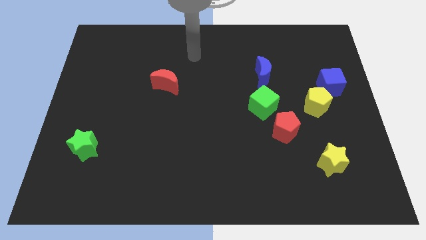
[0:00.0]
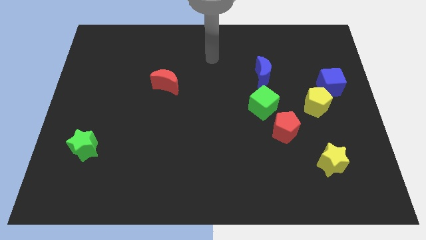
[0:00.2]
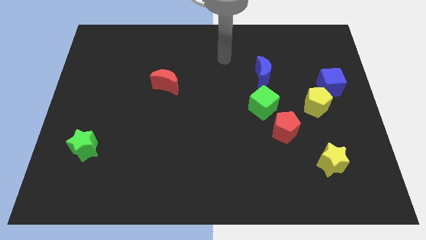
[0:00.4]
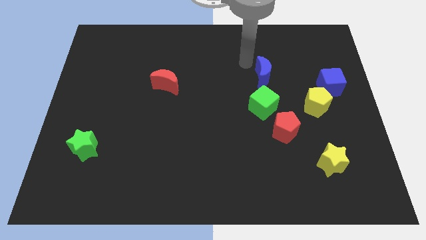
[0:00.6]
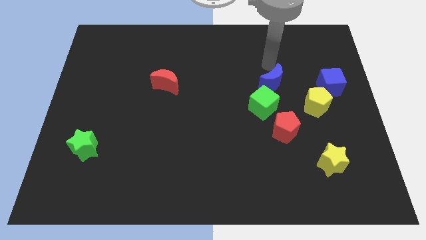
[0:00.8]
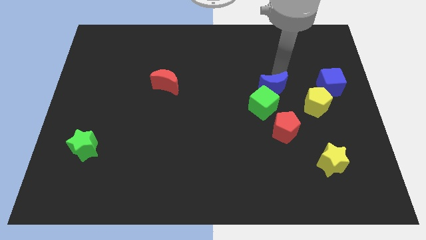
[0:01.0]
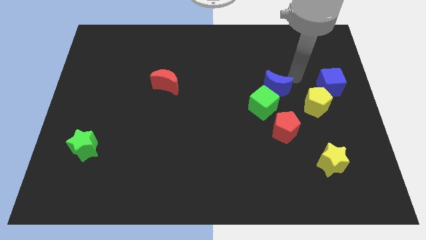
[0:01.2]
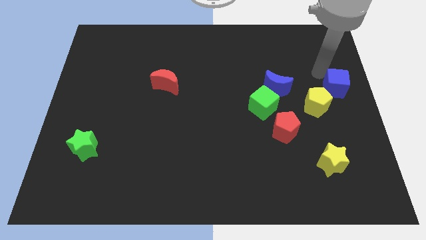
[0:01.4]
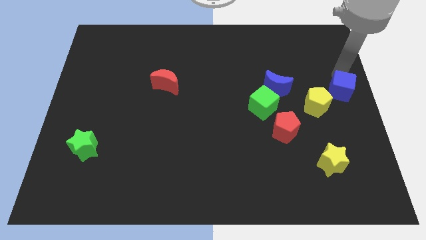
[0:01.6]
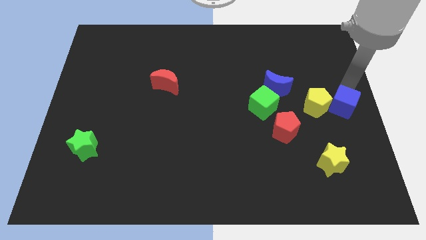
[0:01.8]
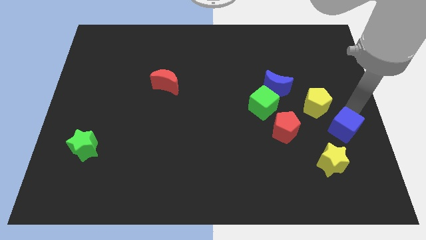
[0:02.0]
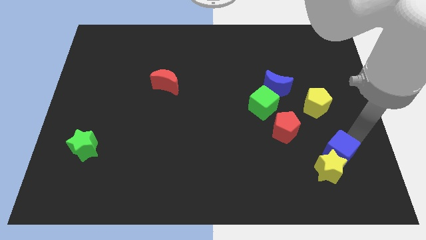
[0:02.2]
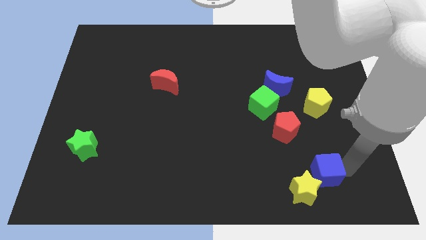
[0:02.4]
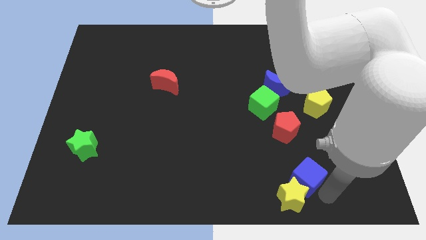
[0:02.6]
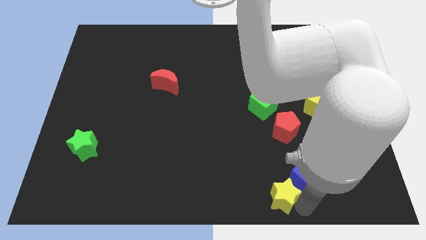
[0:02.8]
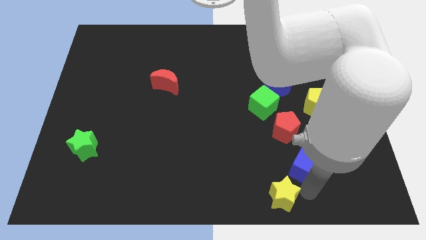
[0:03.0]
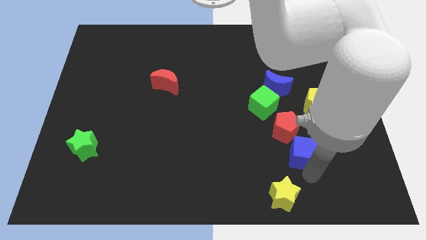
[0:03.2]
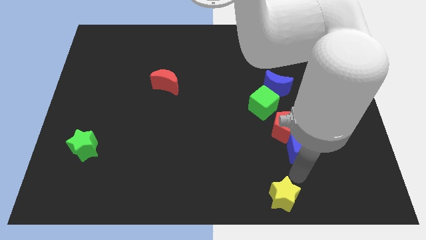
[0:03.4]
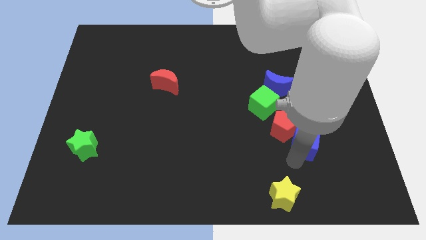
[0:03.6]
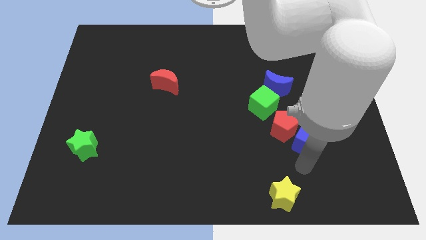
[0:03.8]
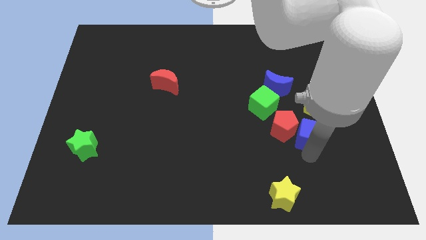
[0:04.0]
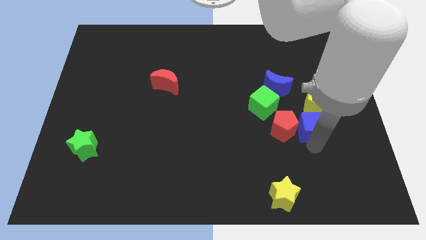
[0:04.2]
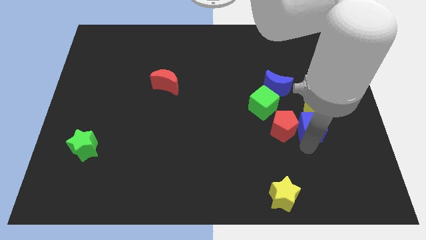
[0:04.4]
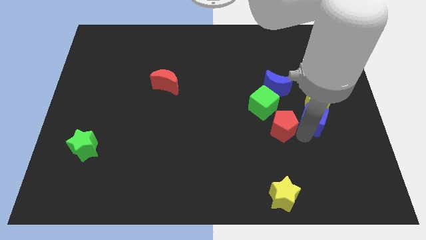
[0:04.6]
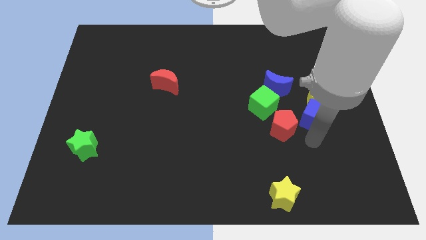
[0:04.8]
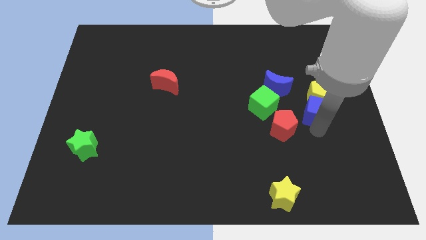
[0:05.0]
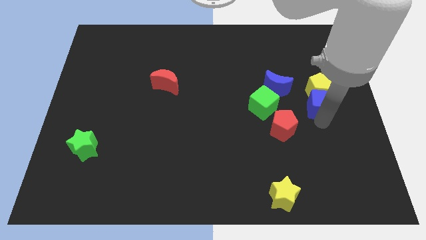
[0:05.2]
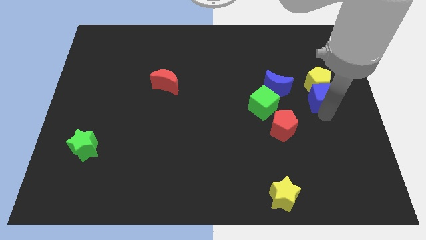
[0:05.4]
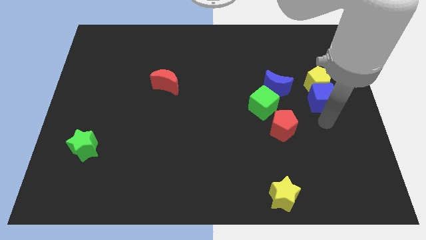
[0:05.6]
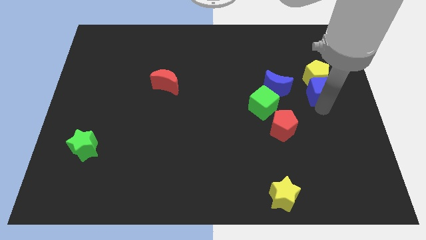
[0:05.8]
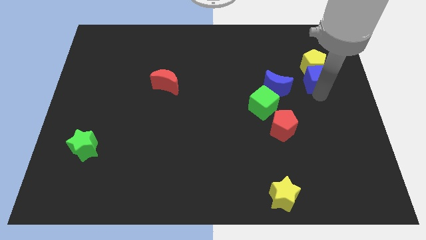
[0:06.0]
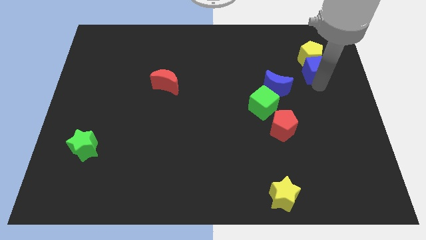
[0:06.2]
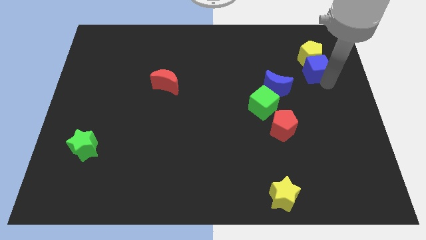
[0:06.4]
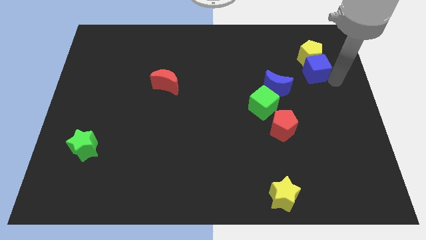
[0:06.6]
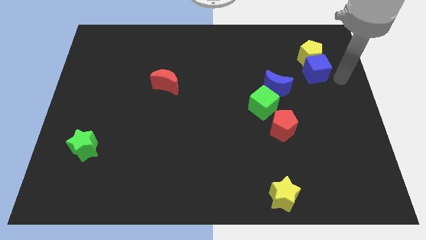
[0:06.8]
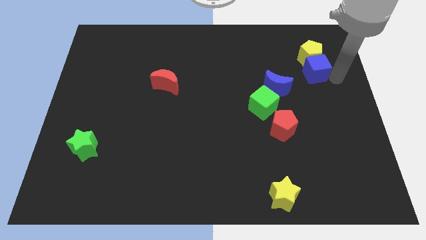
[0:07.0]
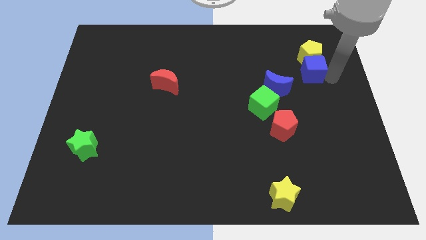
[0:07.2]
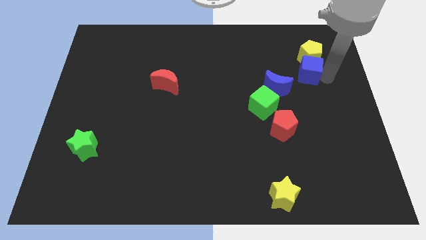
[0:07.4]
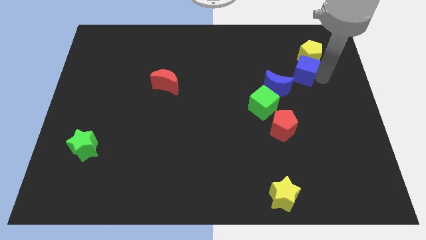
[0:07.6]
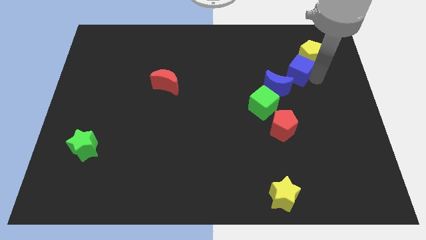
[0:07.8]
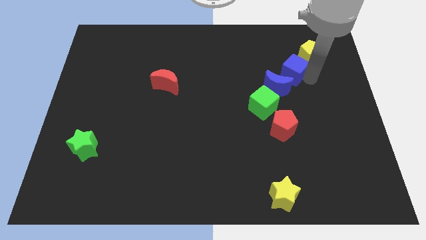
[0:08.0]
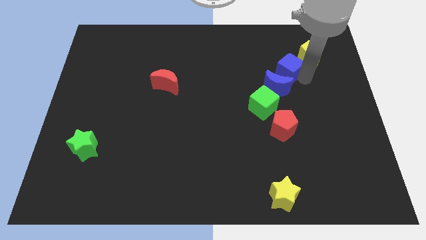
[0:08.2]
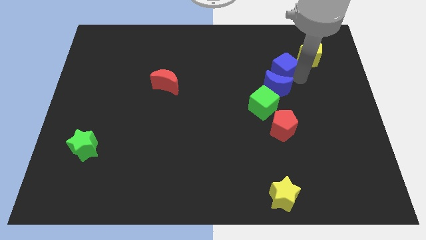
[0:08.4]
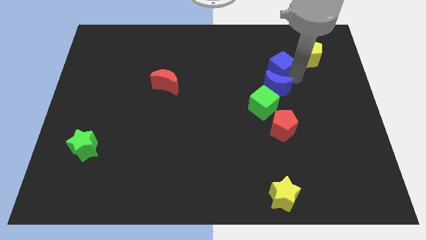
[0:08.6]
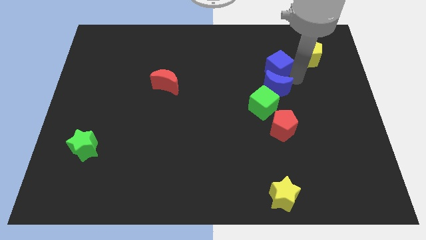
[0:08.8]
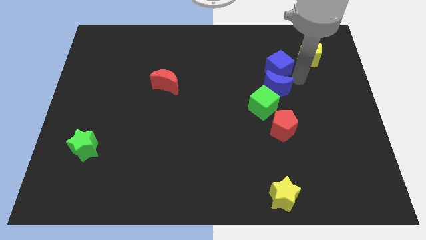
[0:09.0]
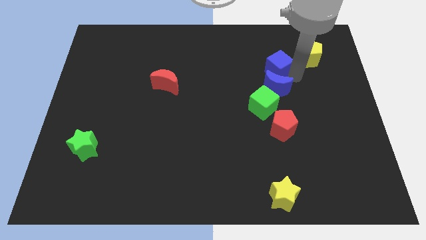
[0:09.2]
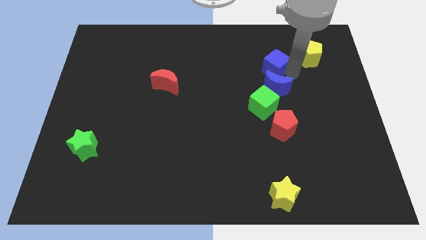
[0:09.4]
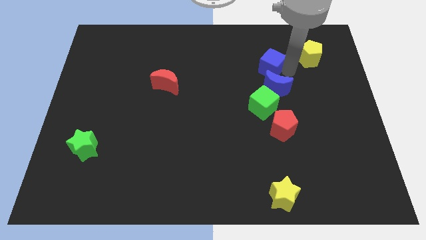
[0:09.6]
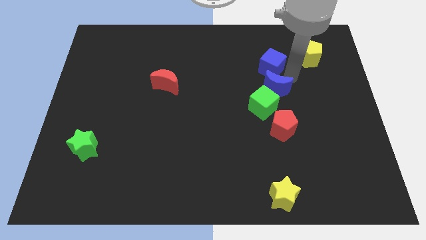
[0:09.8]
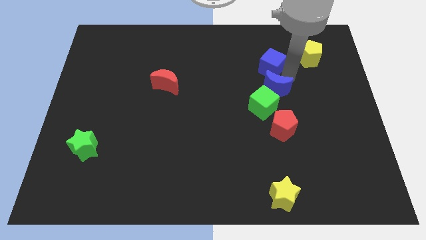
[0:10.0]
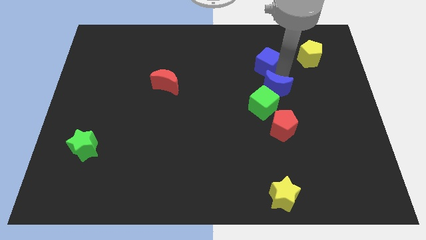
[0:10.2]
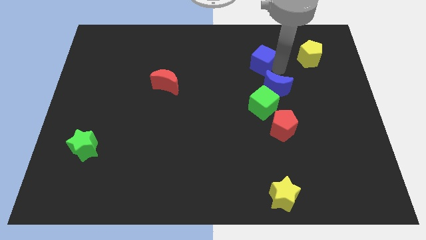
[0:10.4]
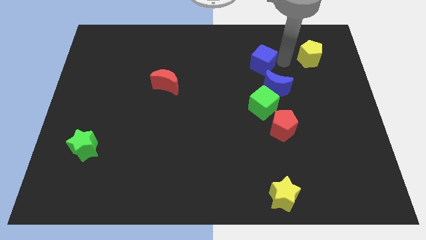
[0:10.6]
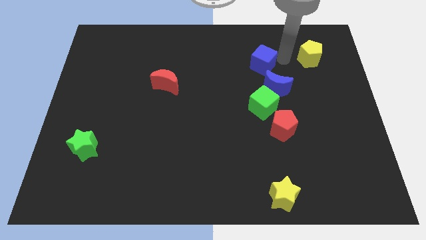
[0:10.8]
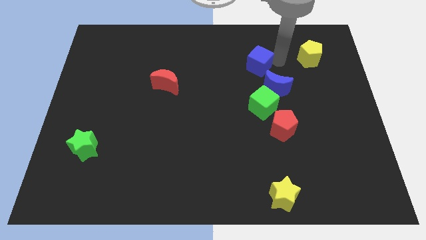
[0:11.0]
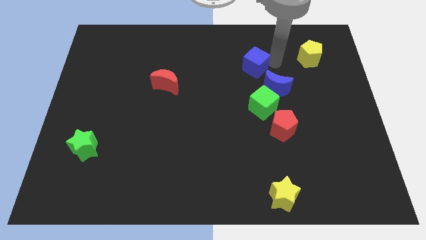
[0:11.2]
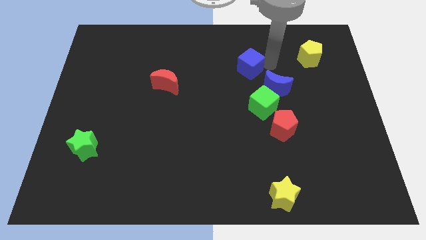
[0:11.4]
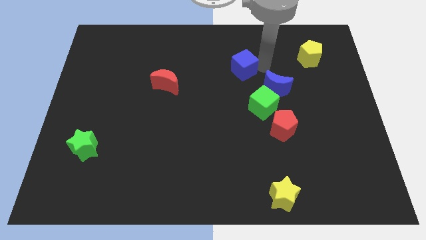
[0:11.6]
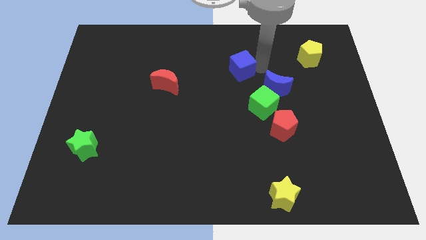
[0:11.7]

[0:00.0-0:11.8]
push the blue cube to the left

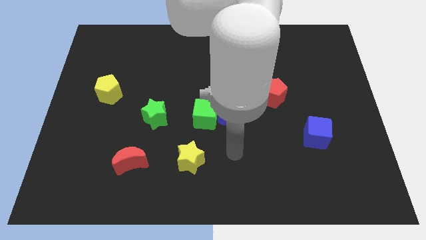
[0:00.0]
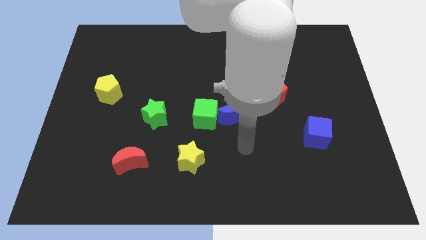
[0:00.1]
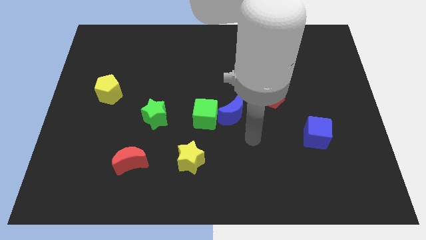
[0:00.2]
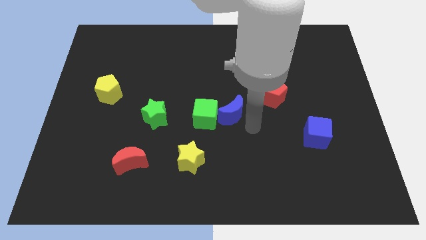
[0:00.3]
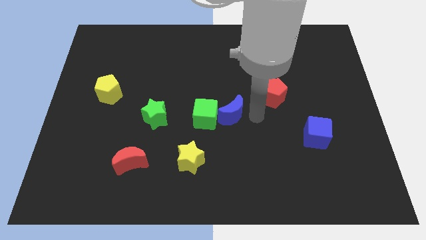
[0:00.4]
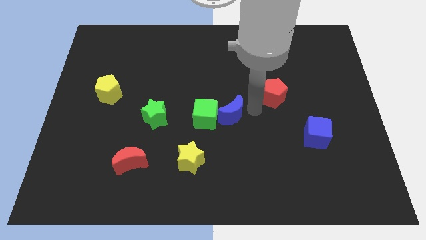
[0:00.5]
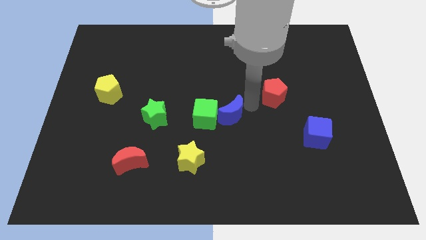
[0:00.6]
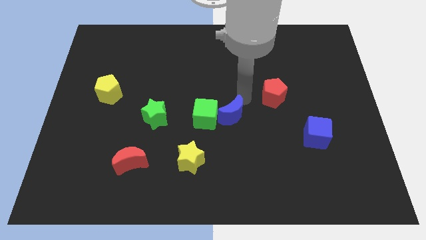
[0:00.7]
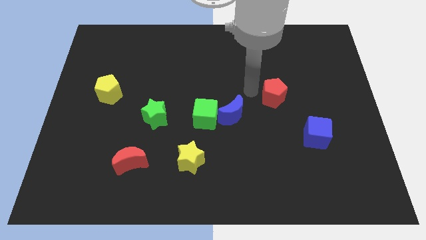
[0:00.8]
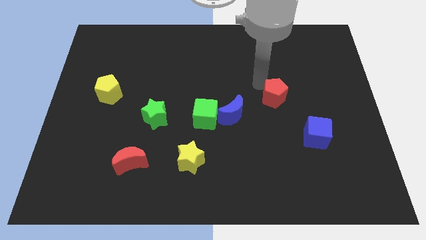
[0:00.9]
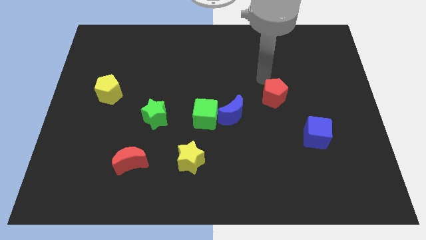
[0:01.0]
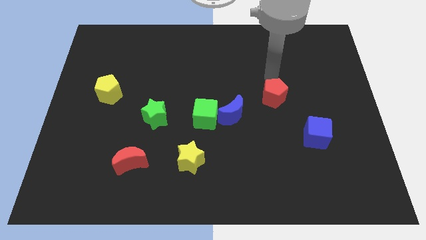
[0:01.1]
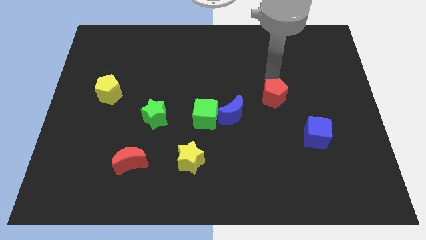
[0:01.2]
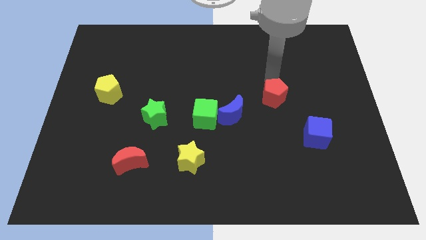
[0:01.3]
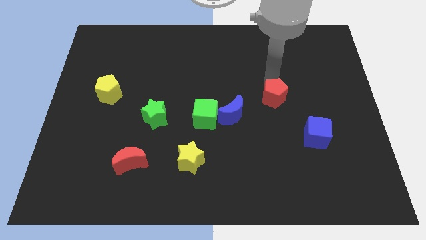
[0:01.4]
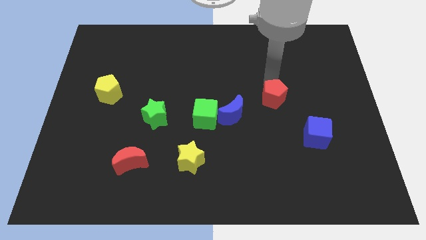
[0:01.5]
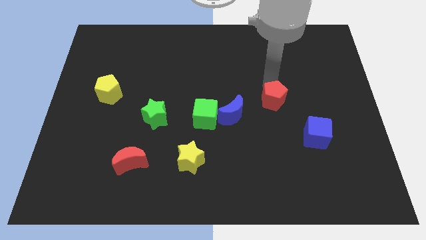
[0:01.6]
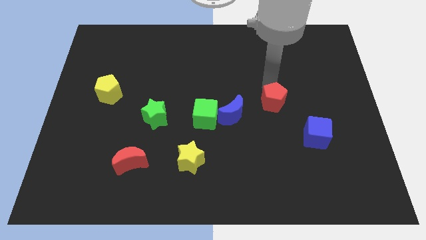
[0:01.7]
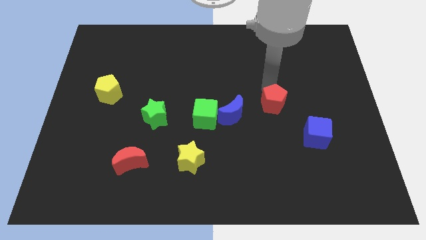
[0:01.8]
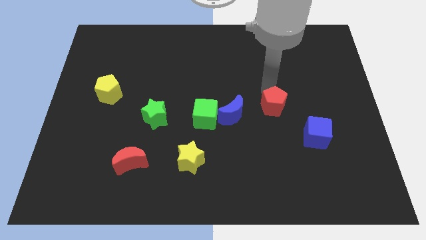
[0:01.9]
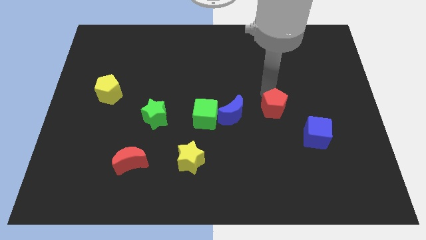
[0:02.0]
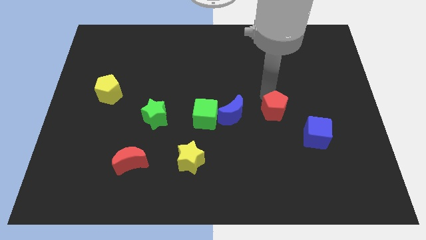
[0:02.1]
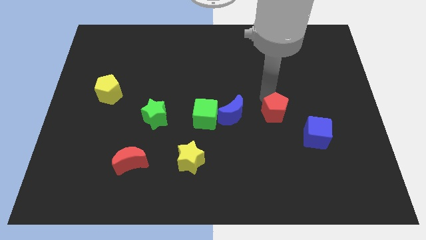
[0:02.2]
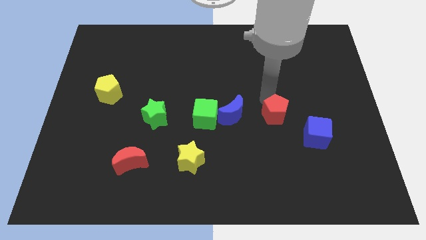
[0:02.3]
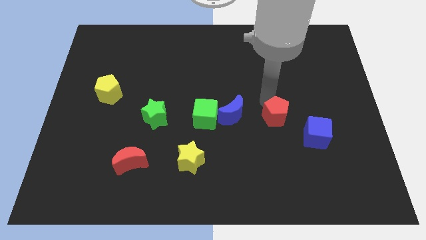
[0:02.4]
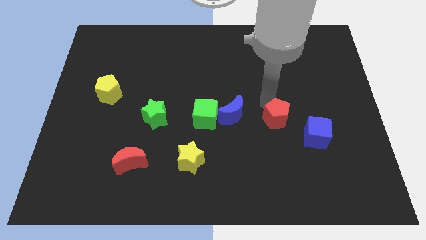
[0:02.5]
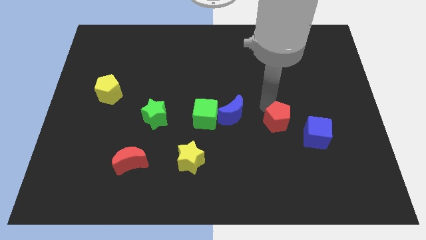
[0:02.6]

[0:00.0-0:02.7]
move the red pentagon a little down
